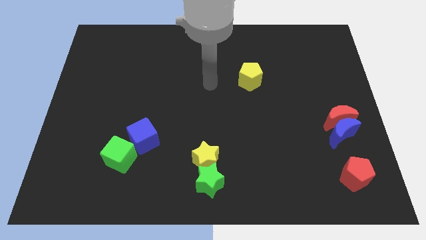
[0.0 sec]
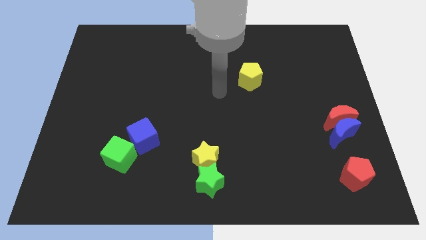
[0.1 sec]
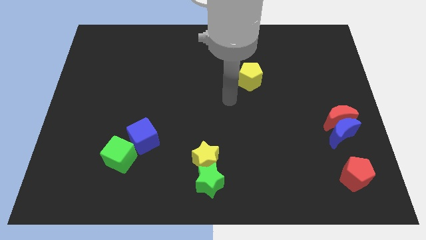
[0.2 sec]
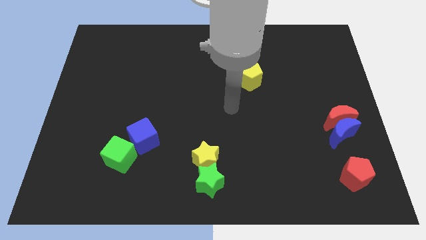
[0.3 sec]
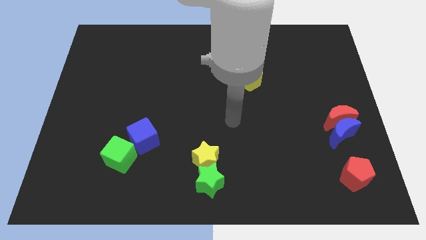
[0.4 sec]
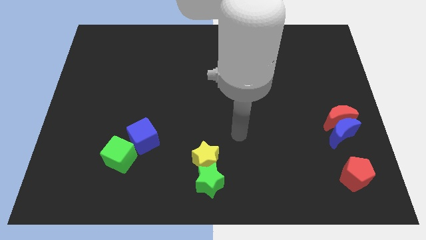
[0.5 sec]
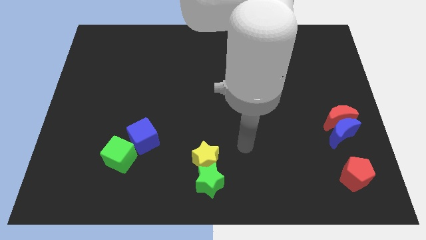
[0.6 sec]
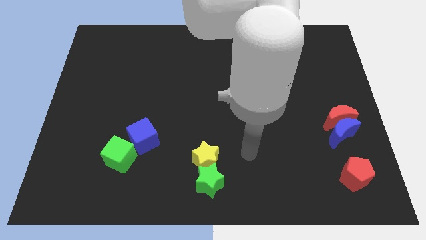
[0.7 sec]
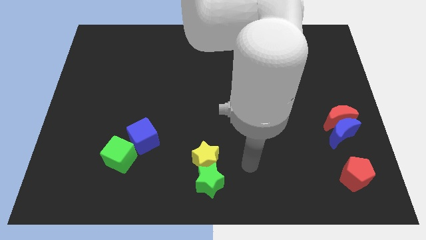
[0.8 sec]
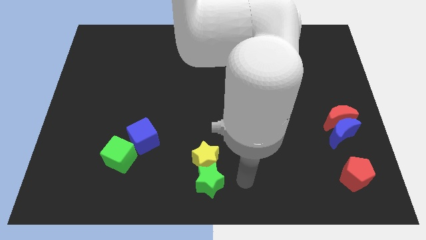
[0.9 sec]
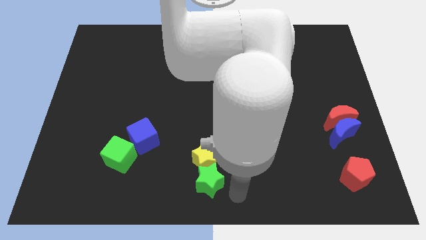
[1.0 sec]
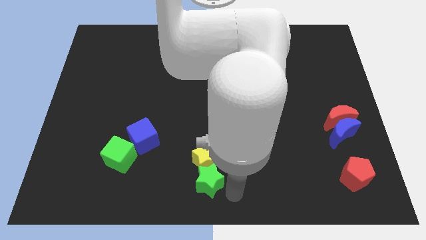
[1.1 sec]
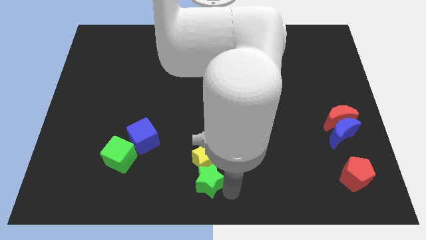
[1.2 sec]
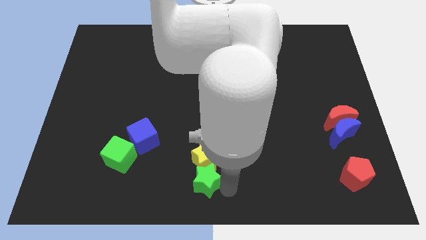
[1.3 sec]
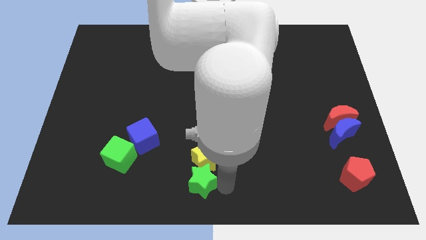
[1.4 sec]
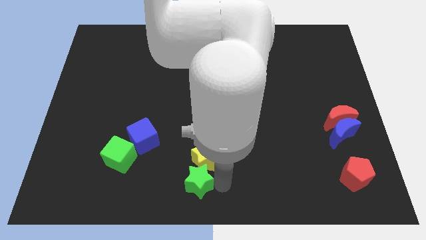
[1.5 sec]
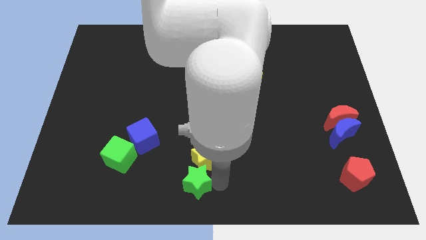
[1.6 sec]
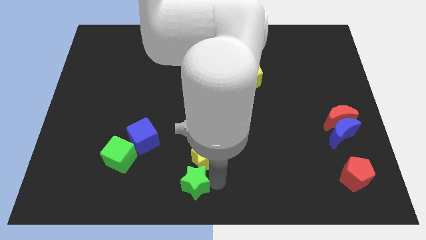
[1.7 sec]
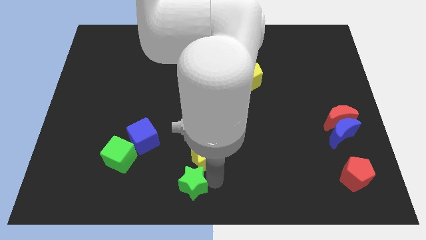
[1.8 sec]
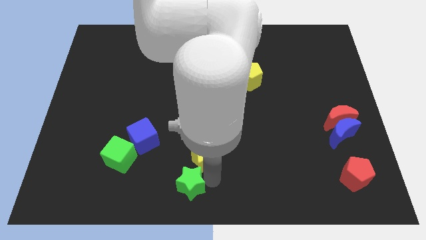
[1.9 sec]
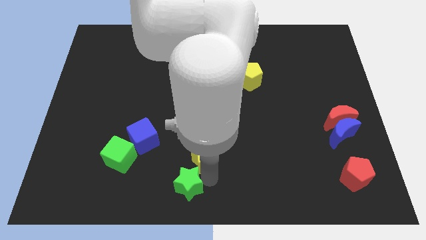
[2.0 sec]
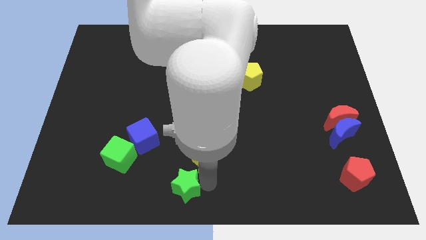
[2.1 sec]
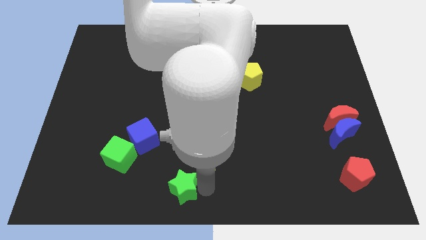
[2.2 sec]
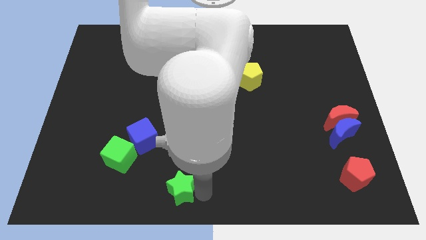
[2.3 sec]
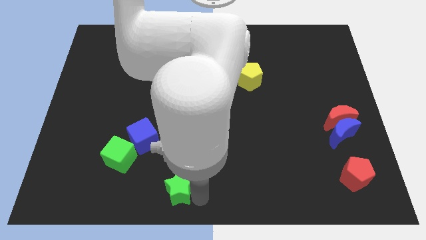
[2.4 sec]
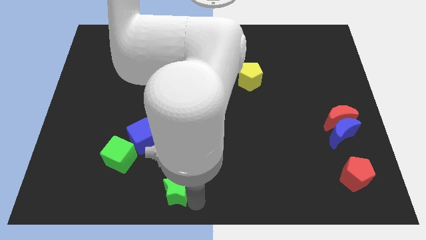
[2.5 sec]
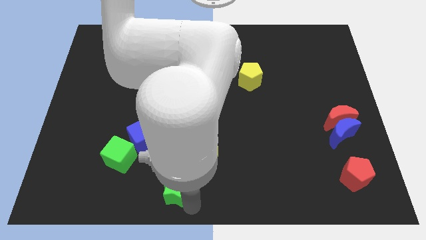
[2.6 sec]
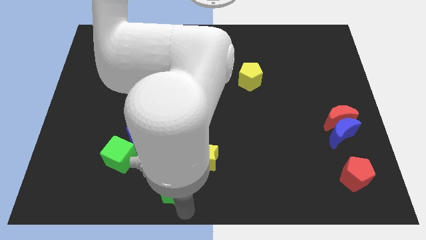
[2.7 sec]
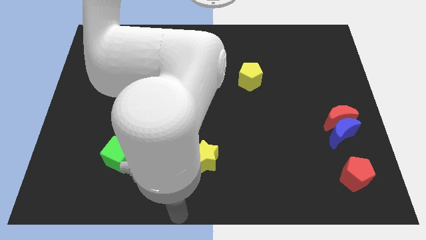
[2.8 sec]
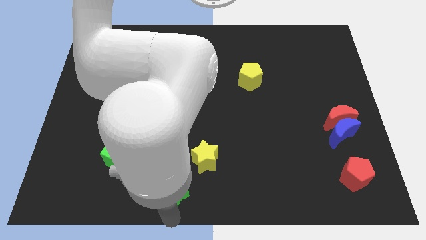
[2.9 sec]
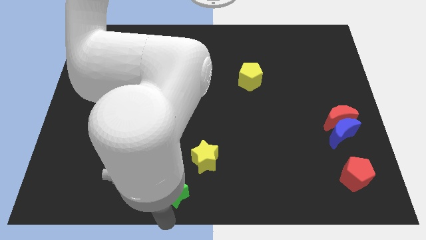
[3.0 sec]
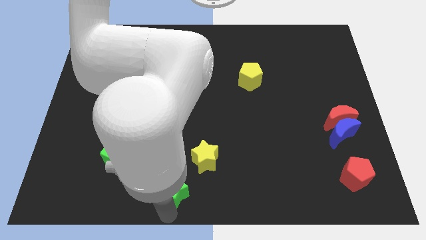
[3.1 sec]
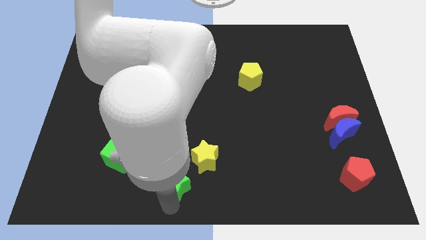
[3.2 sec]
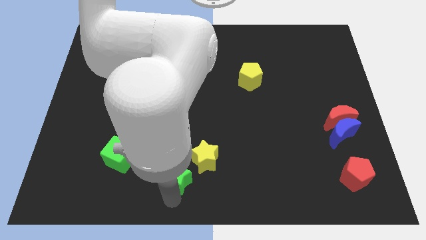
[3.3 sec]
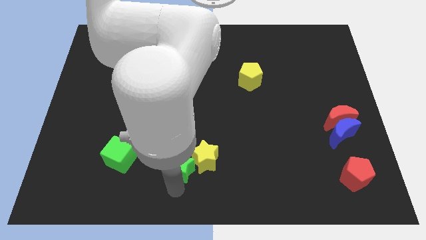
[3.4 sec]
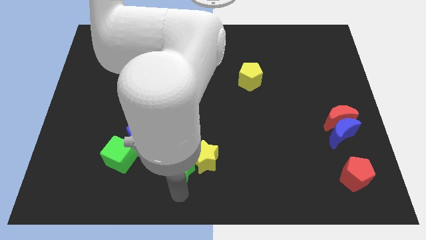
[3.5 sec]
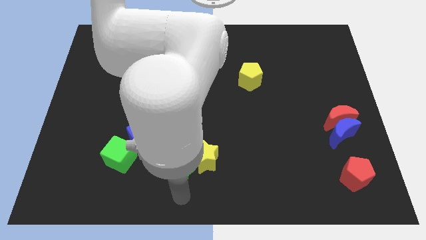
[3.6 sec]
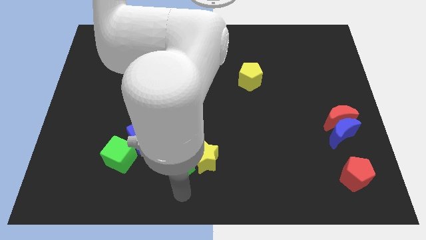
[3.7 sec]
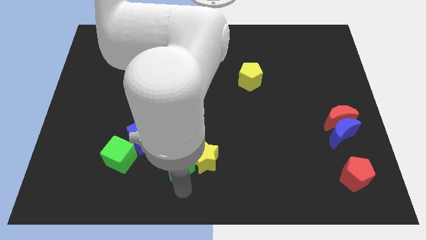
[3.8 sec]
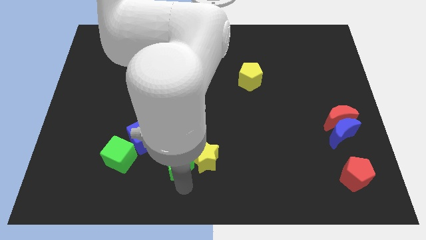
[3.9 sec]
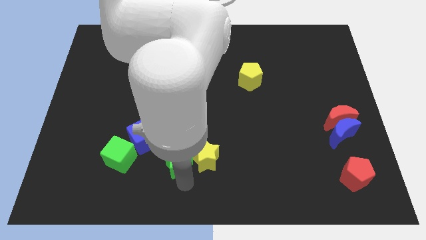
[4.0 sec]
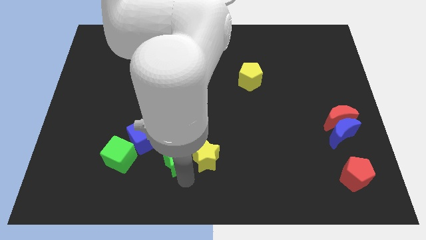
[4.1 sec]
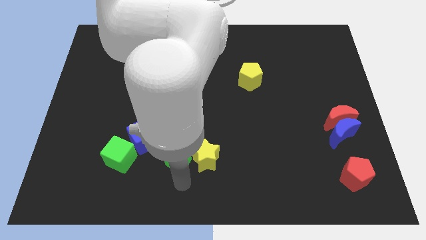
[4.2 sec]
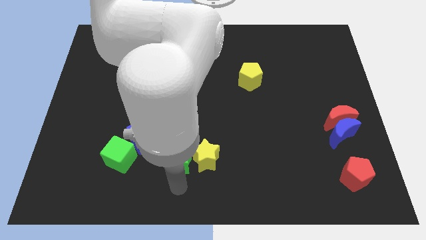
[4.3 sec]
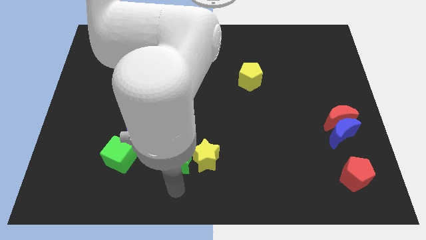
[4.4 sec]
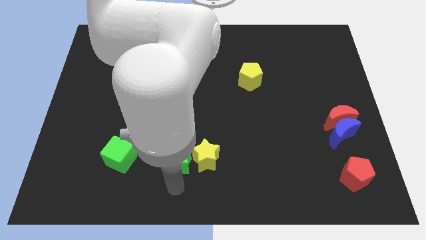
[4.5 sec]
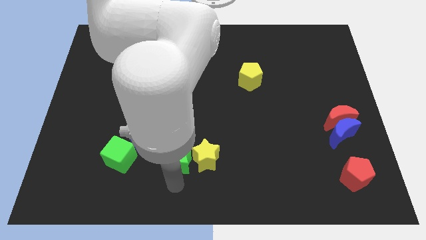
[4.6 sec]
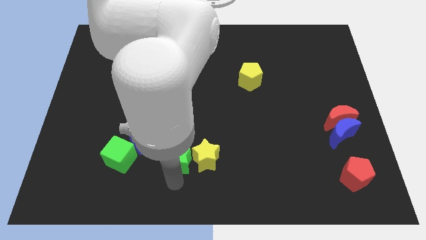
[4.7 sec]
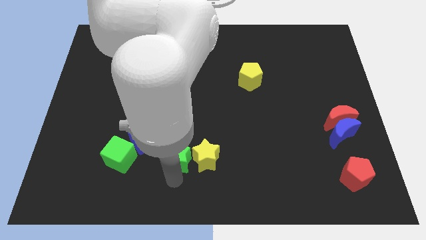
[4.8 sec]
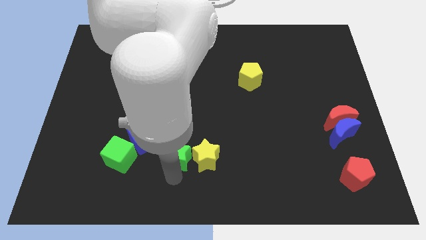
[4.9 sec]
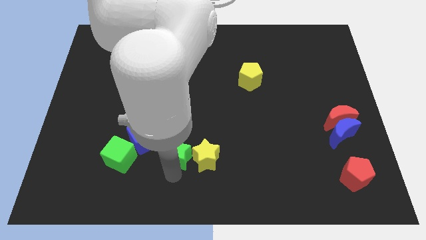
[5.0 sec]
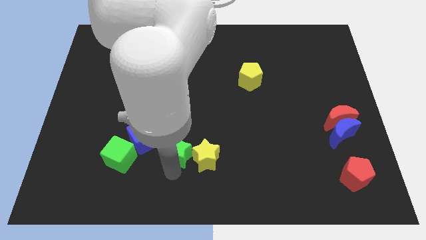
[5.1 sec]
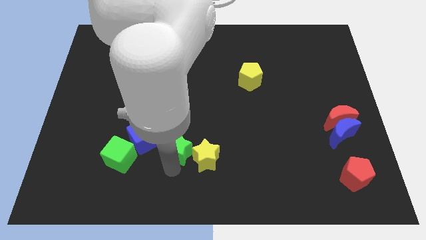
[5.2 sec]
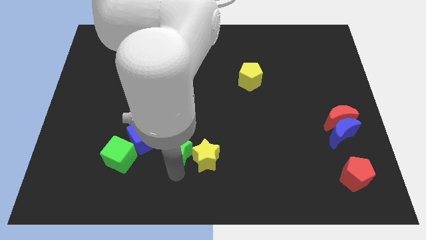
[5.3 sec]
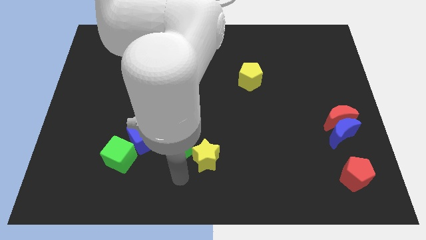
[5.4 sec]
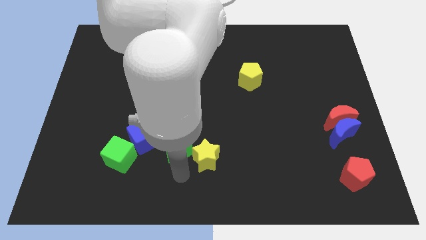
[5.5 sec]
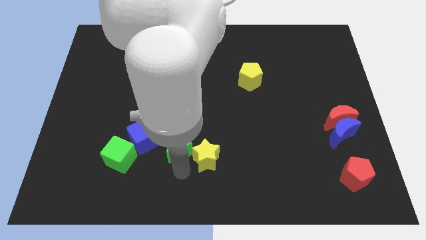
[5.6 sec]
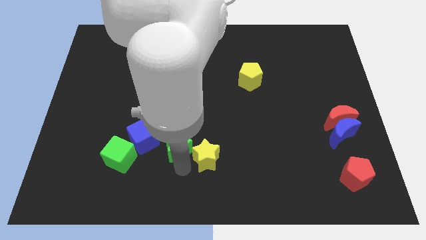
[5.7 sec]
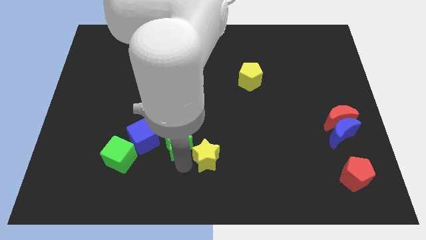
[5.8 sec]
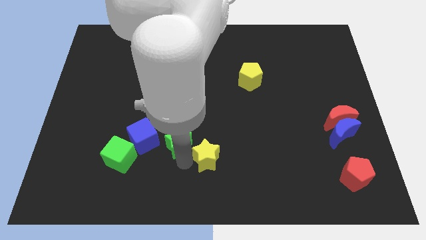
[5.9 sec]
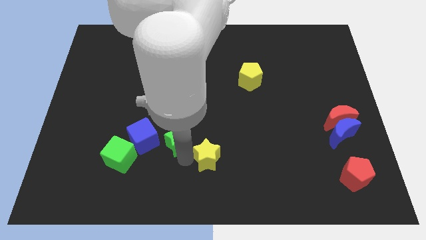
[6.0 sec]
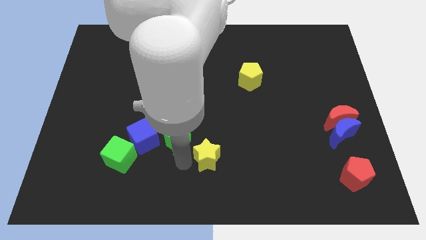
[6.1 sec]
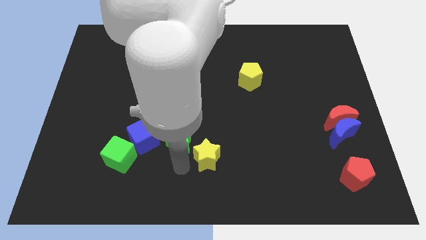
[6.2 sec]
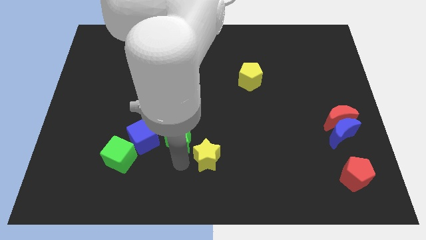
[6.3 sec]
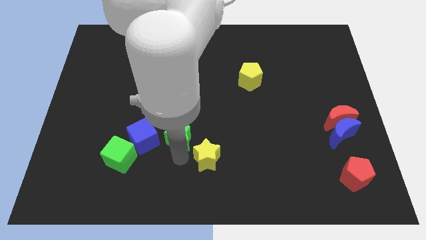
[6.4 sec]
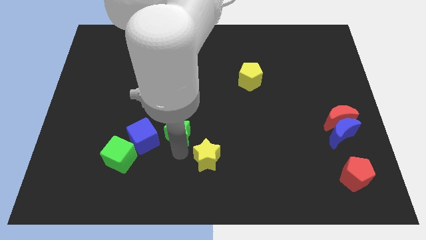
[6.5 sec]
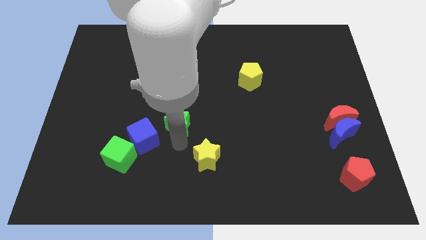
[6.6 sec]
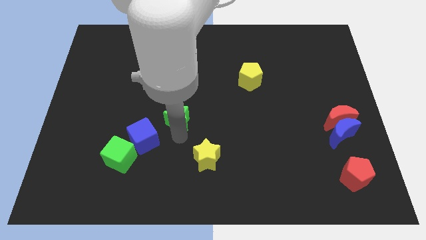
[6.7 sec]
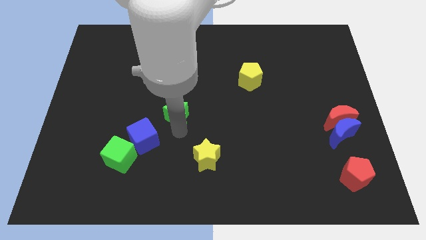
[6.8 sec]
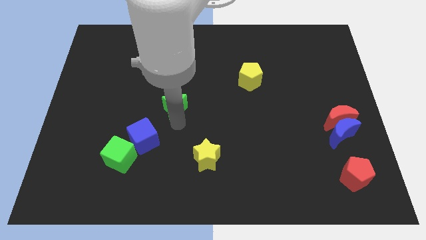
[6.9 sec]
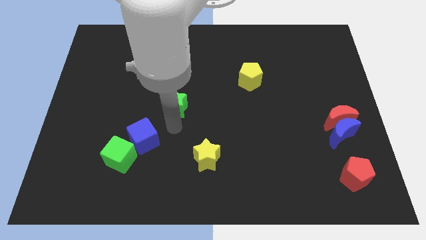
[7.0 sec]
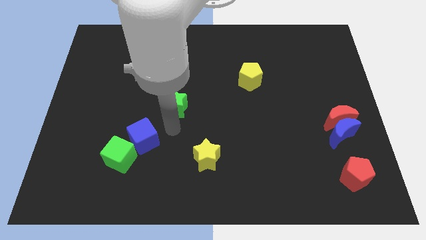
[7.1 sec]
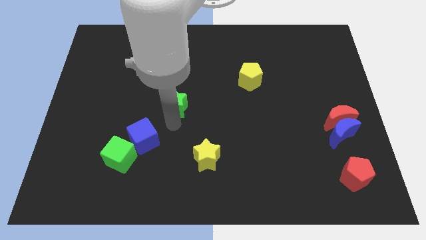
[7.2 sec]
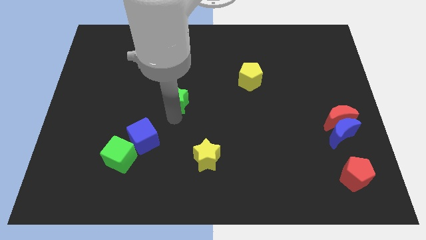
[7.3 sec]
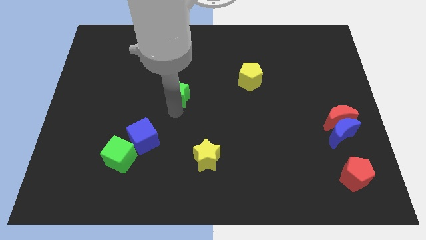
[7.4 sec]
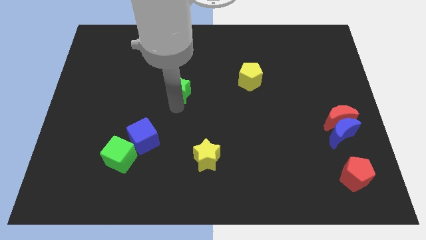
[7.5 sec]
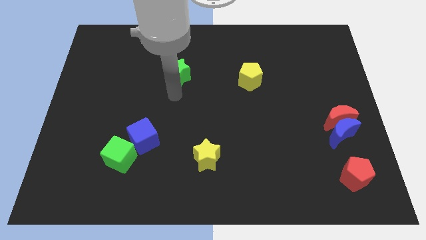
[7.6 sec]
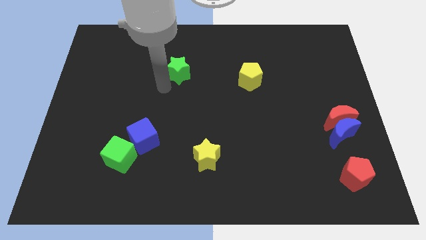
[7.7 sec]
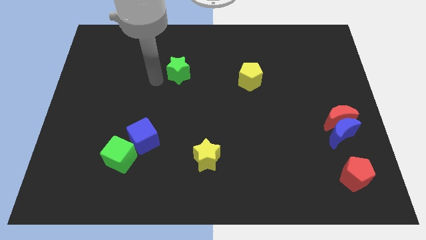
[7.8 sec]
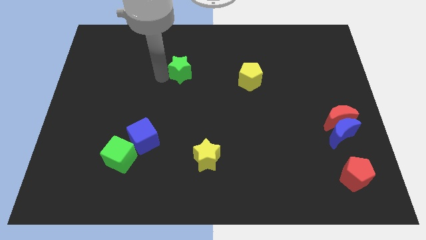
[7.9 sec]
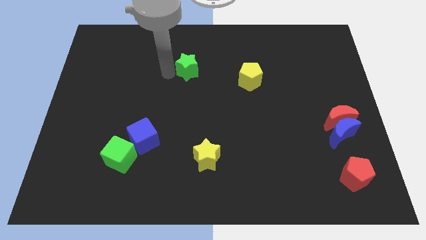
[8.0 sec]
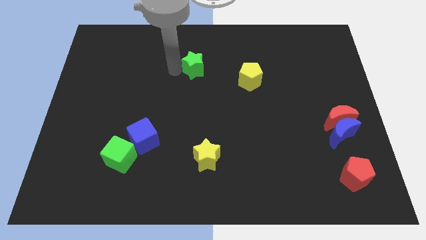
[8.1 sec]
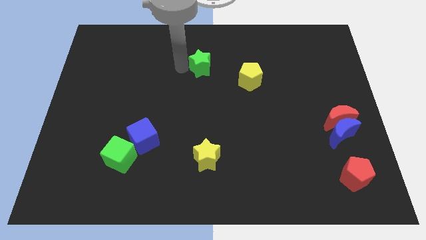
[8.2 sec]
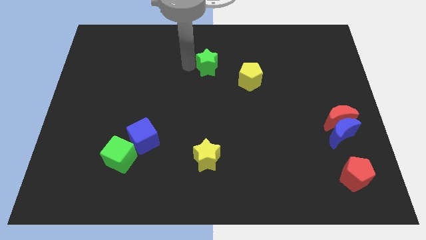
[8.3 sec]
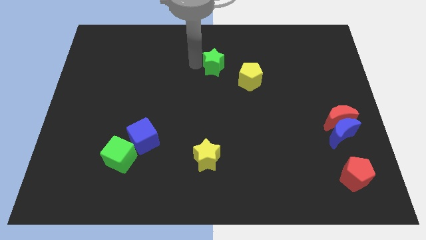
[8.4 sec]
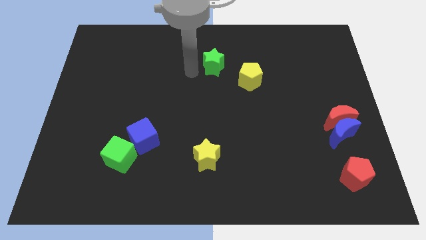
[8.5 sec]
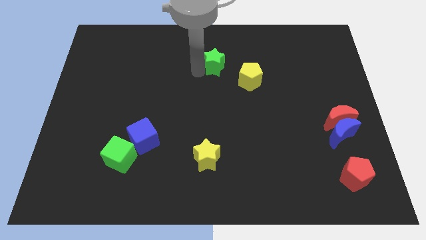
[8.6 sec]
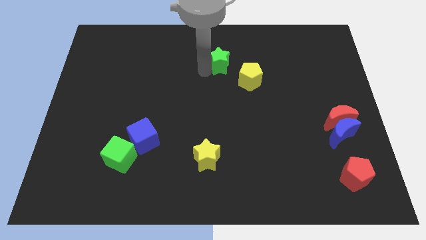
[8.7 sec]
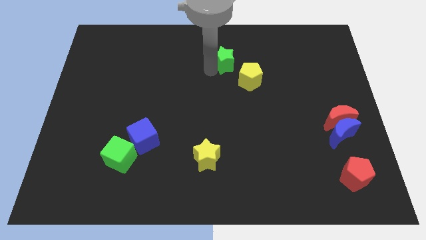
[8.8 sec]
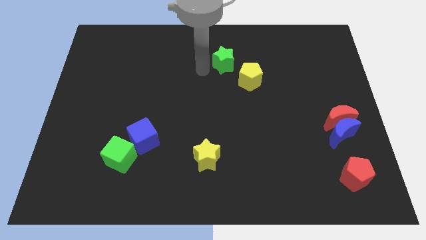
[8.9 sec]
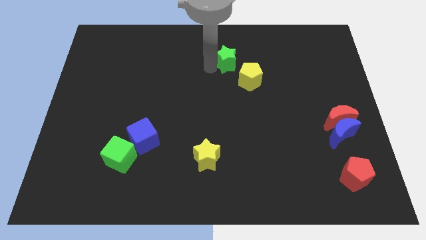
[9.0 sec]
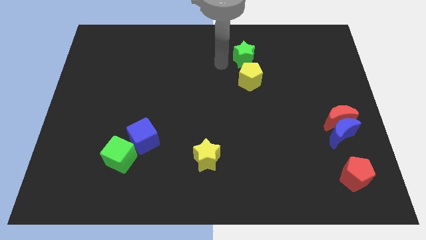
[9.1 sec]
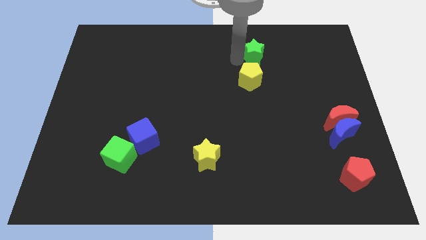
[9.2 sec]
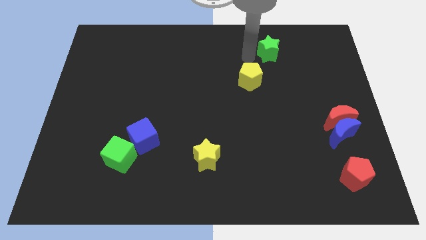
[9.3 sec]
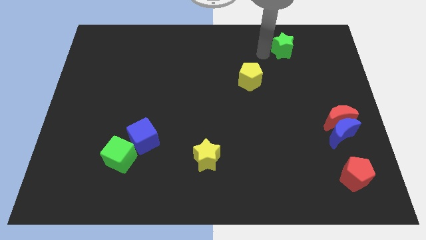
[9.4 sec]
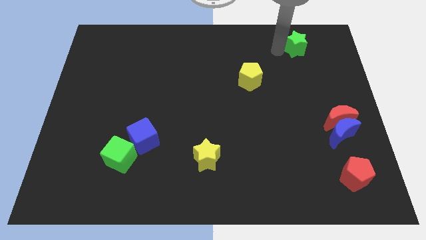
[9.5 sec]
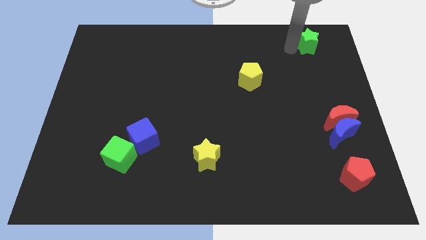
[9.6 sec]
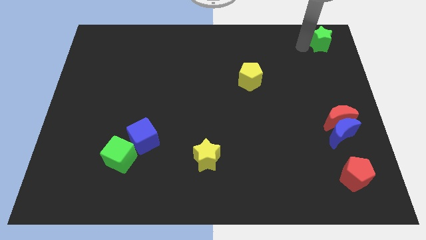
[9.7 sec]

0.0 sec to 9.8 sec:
slide the green star to the top right
